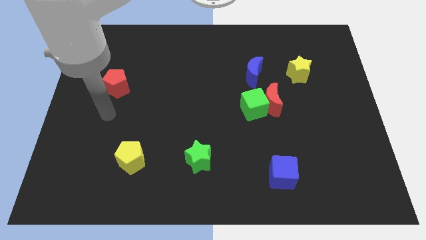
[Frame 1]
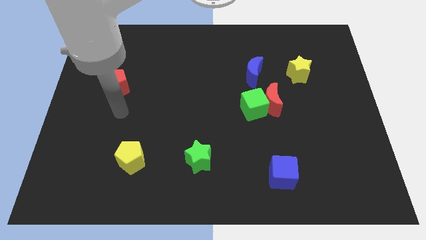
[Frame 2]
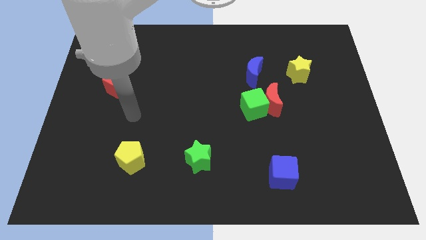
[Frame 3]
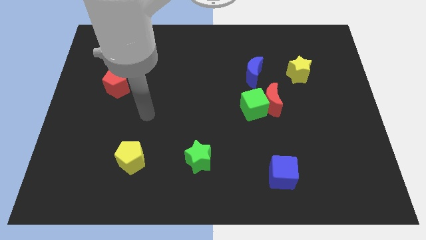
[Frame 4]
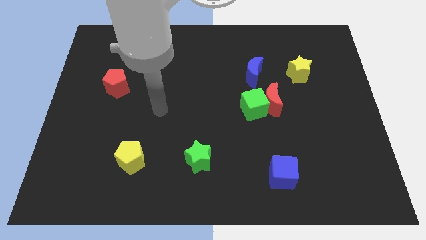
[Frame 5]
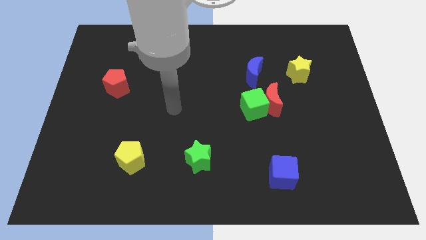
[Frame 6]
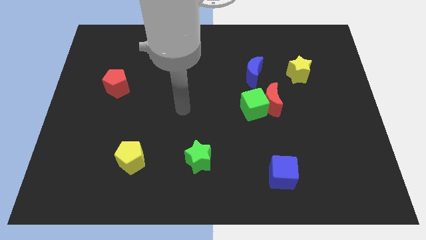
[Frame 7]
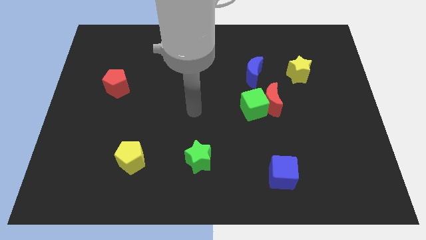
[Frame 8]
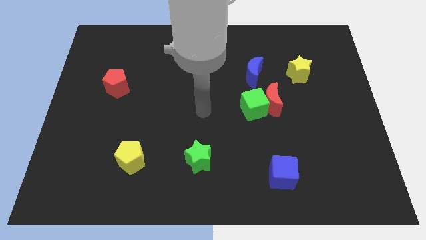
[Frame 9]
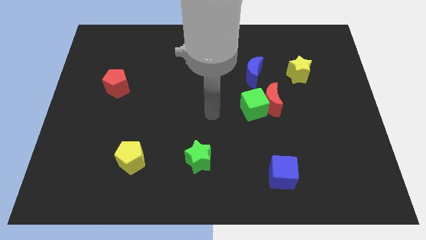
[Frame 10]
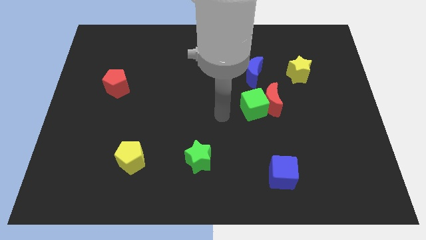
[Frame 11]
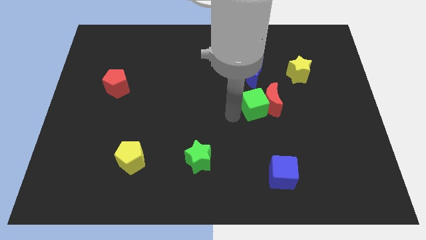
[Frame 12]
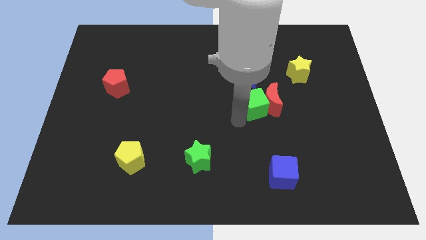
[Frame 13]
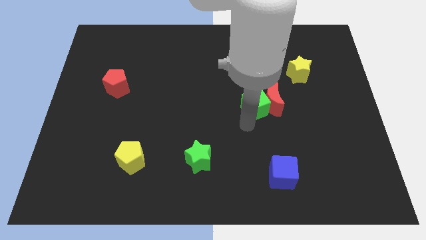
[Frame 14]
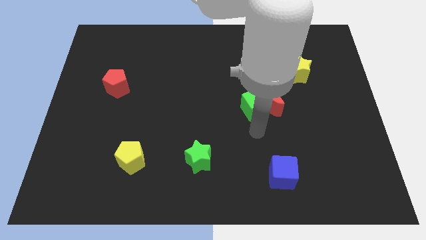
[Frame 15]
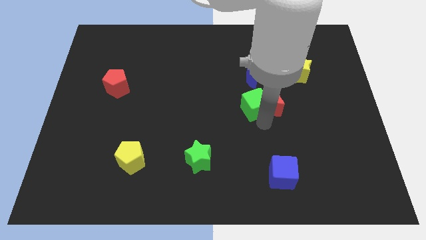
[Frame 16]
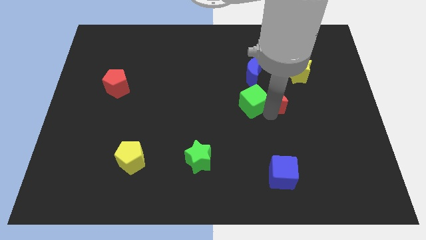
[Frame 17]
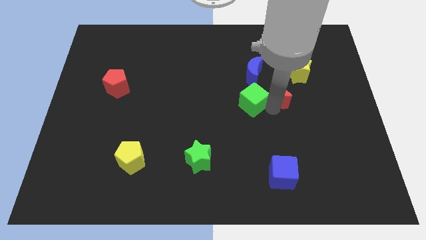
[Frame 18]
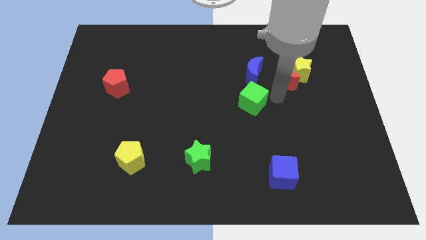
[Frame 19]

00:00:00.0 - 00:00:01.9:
separate the green cube from the red moon

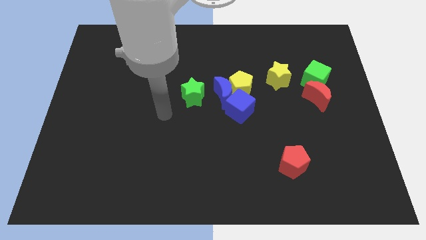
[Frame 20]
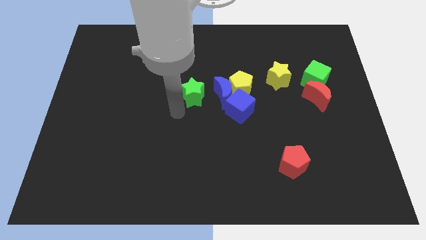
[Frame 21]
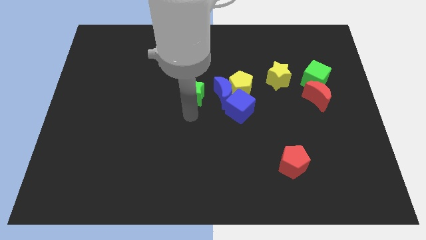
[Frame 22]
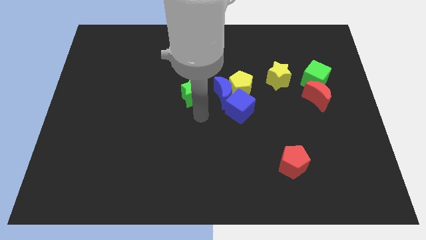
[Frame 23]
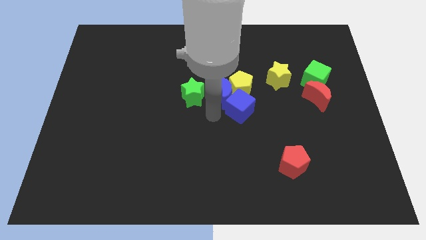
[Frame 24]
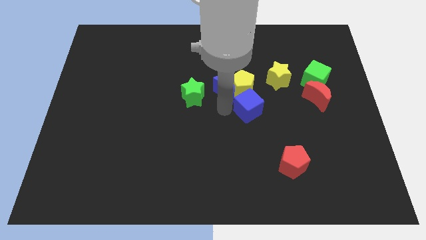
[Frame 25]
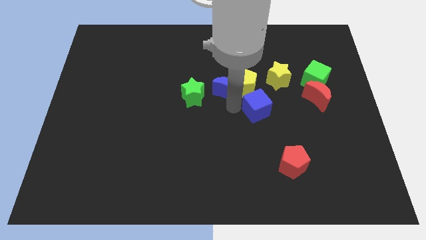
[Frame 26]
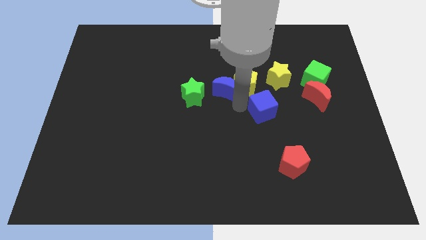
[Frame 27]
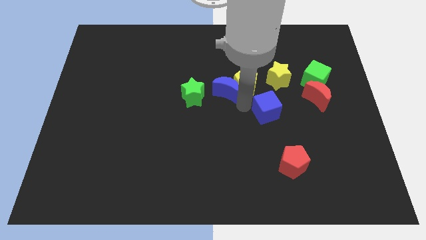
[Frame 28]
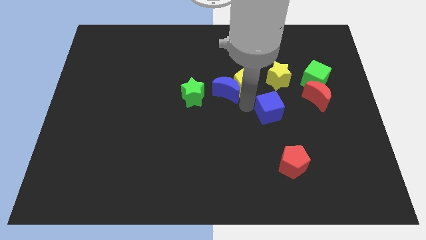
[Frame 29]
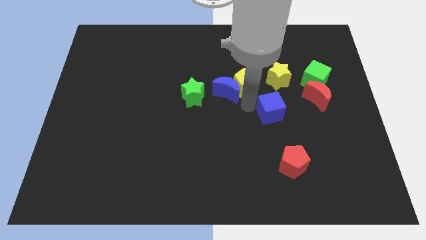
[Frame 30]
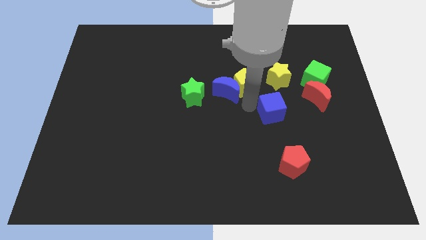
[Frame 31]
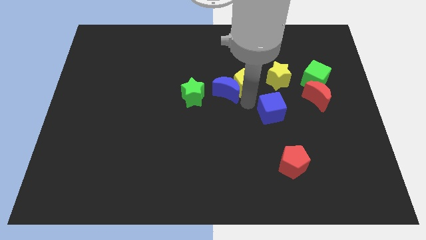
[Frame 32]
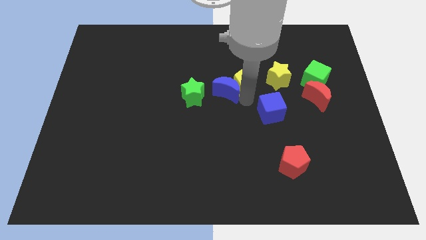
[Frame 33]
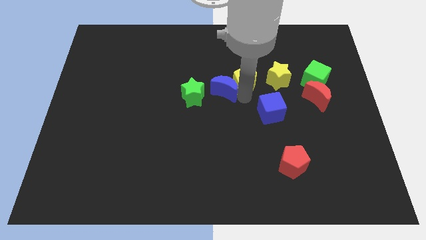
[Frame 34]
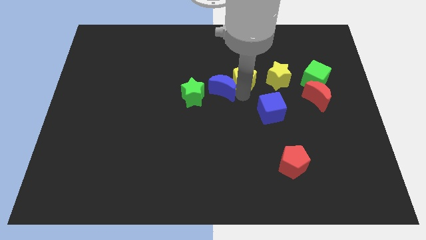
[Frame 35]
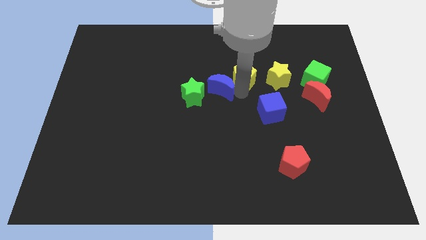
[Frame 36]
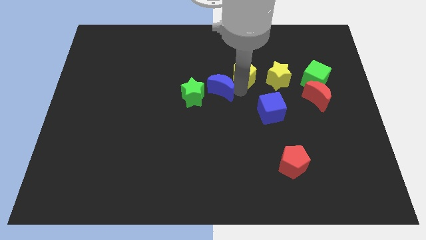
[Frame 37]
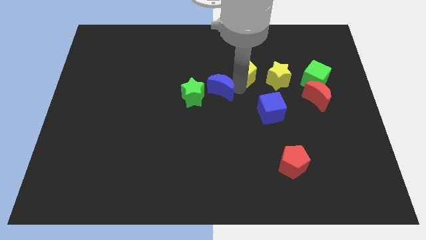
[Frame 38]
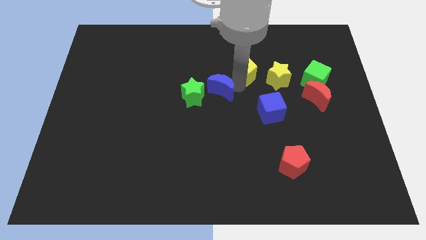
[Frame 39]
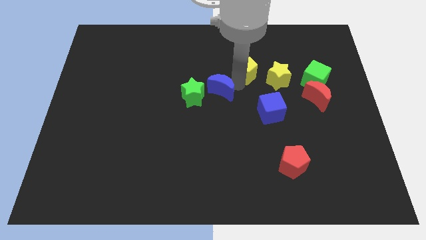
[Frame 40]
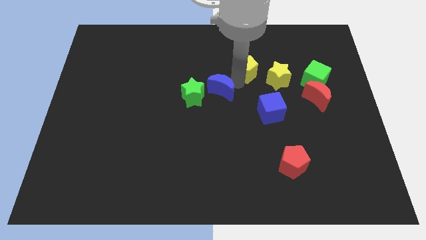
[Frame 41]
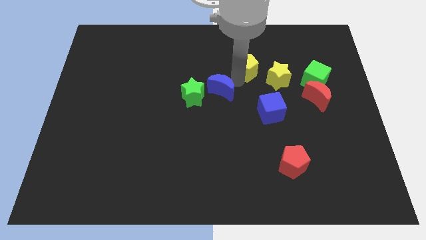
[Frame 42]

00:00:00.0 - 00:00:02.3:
separate the yellow pentagon from the blue moon and blue cube

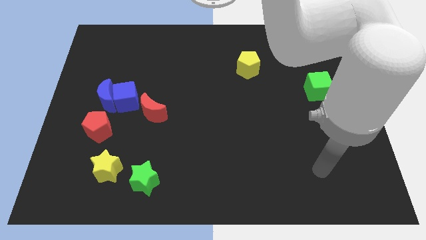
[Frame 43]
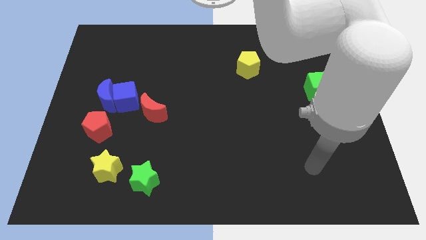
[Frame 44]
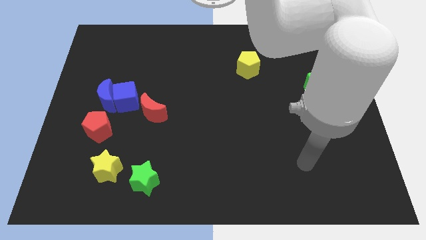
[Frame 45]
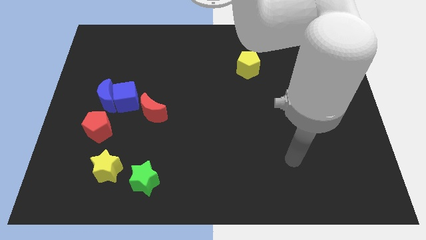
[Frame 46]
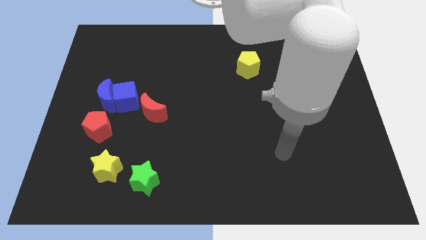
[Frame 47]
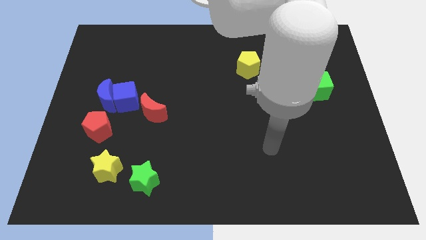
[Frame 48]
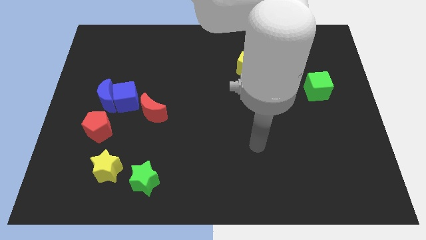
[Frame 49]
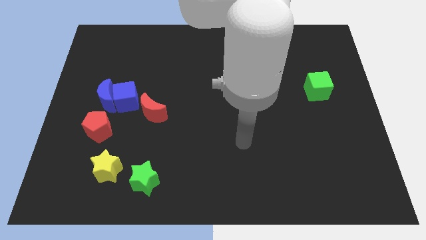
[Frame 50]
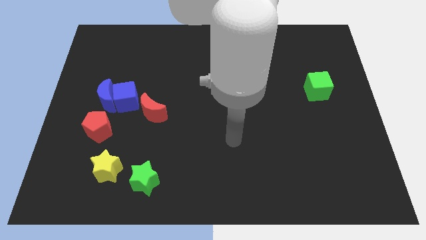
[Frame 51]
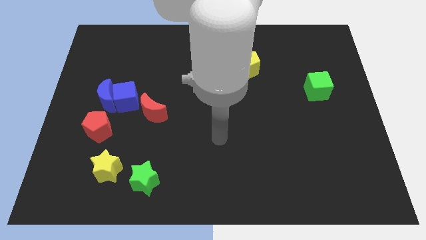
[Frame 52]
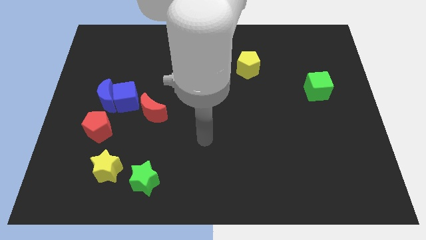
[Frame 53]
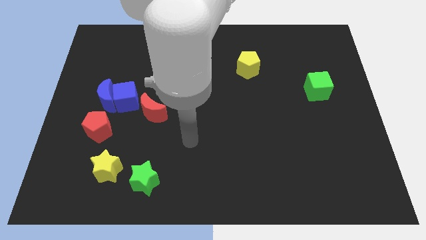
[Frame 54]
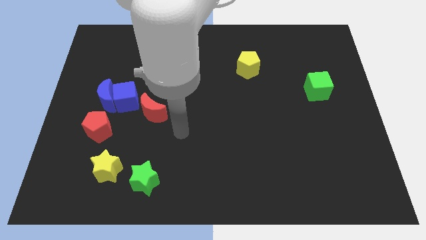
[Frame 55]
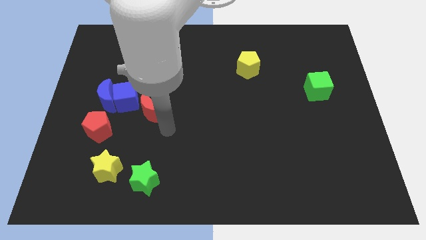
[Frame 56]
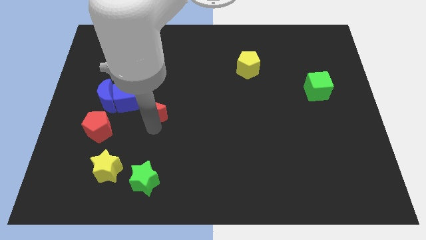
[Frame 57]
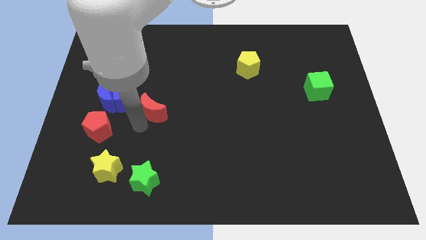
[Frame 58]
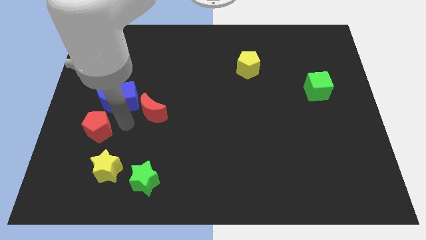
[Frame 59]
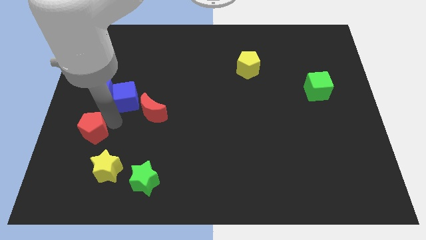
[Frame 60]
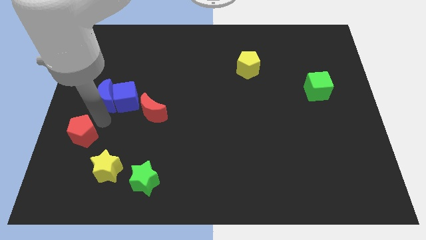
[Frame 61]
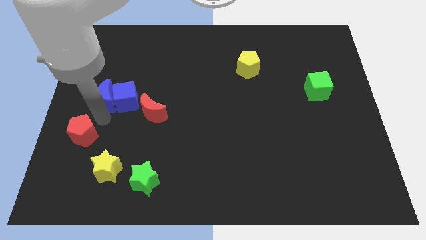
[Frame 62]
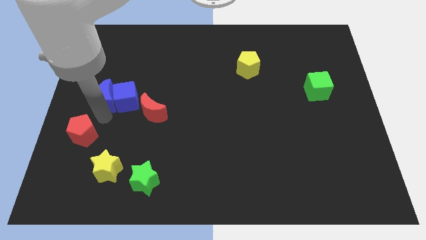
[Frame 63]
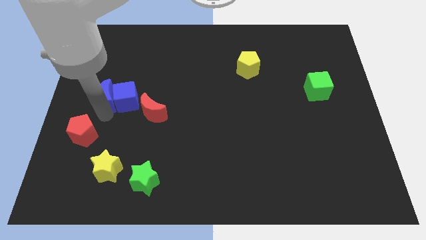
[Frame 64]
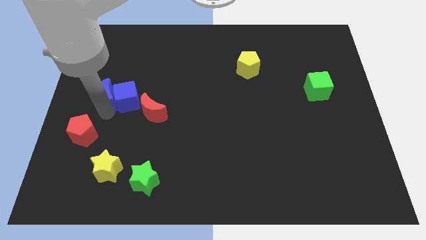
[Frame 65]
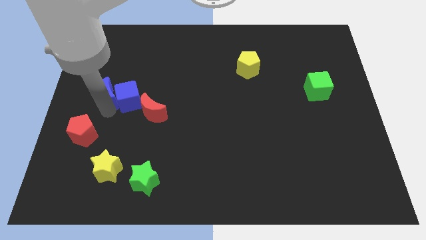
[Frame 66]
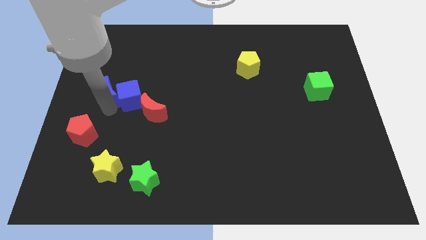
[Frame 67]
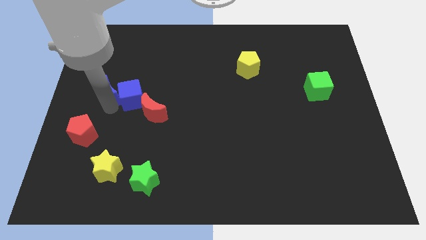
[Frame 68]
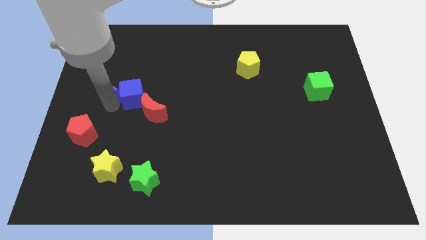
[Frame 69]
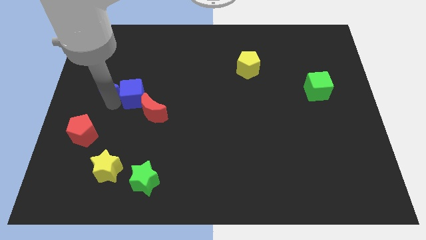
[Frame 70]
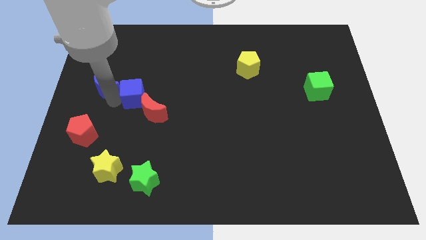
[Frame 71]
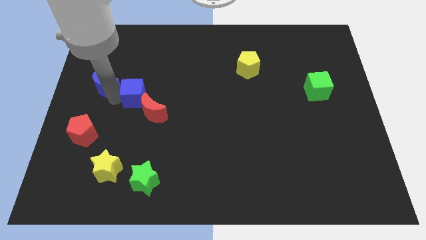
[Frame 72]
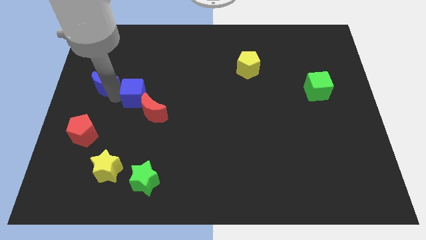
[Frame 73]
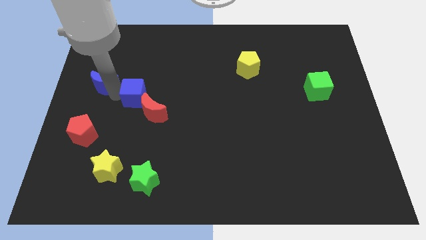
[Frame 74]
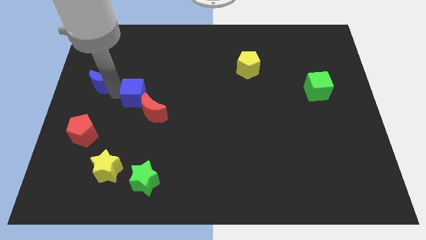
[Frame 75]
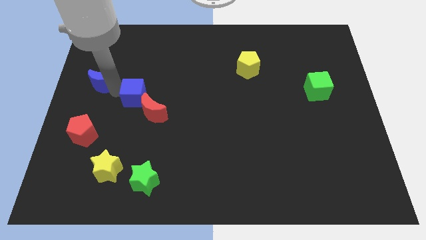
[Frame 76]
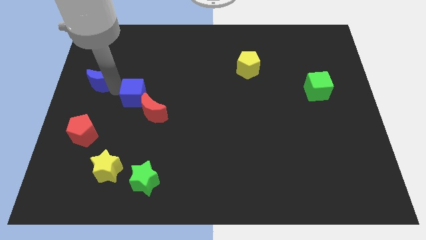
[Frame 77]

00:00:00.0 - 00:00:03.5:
pull the blue moon apart from the blue cube and red pentagon

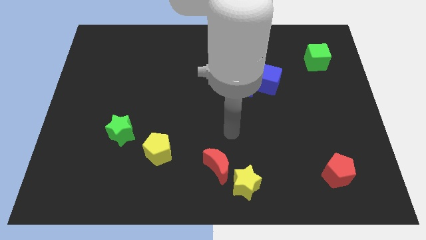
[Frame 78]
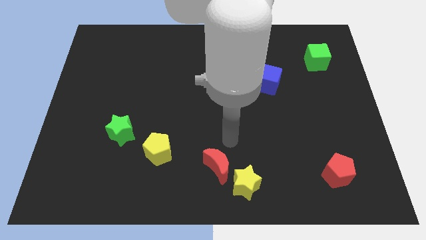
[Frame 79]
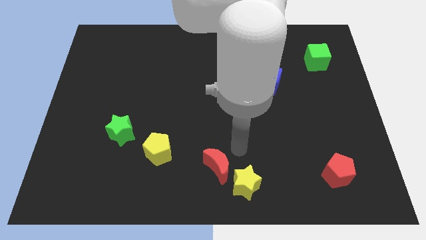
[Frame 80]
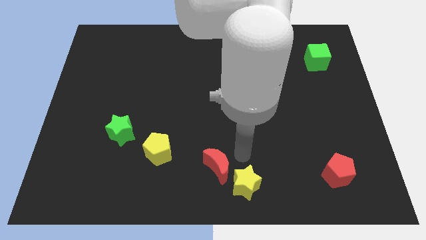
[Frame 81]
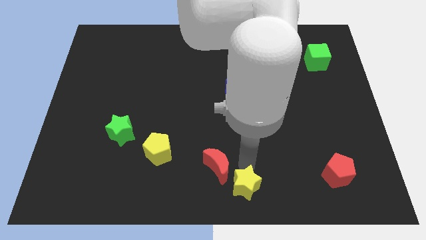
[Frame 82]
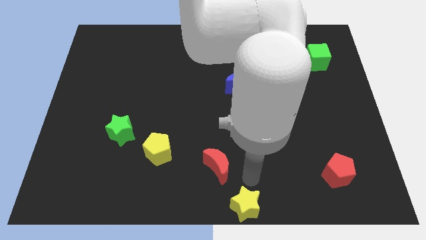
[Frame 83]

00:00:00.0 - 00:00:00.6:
pull the red moon apart from the yellow star

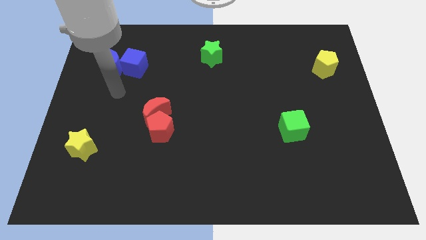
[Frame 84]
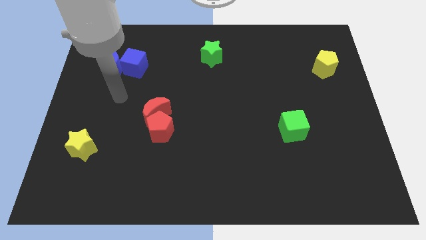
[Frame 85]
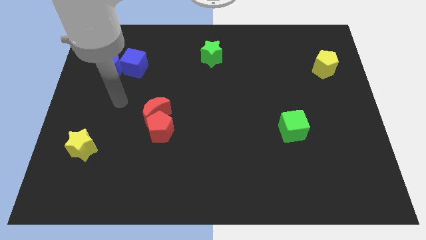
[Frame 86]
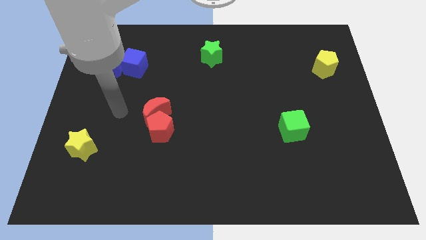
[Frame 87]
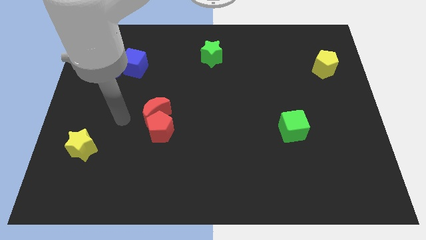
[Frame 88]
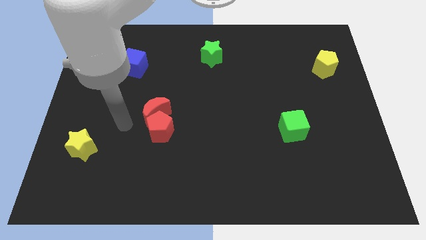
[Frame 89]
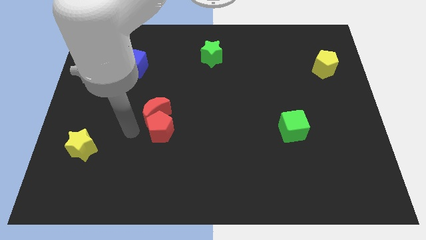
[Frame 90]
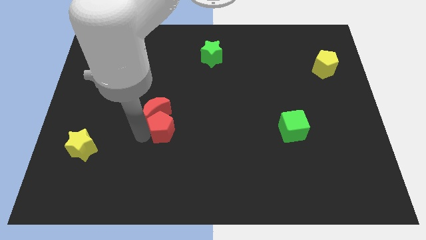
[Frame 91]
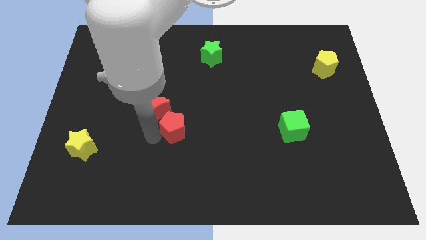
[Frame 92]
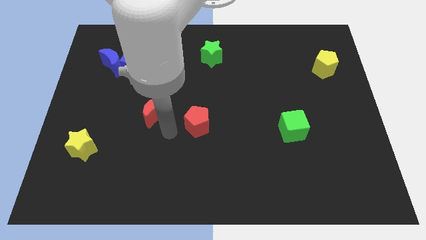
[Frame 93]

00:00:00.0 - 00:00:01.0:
move the red moon away from the red pentagon
